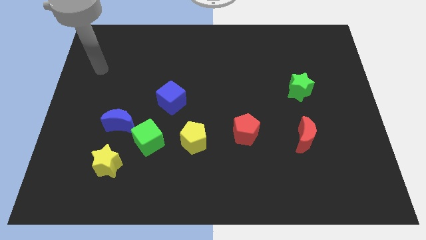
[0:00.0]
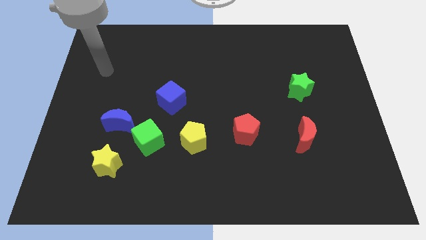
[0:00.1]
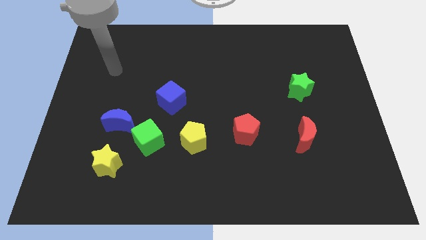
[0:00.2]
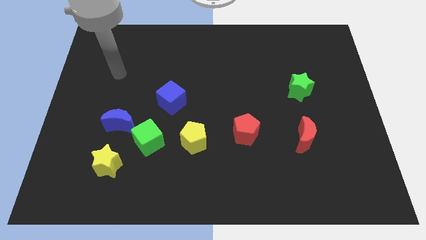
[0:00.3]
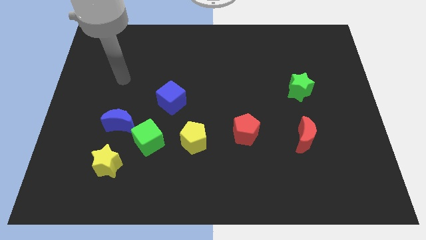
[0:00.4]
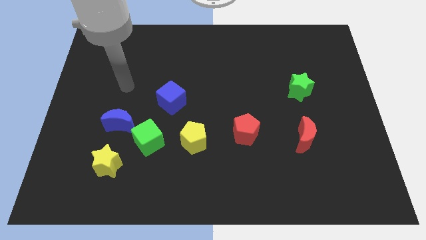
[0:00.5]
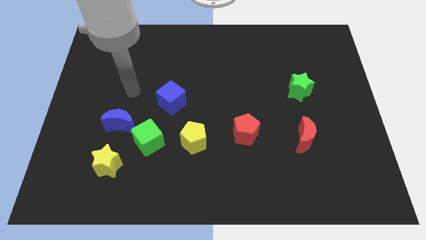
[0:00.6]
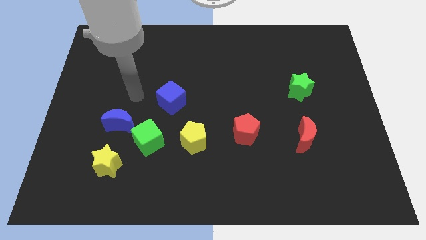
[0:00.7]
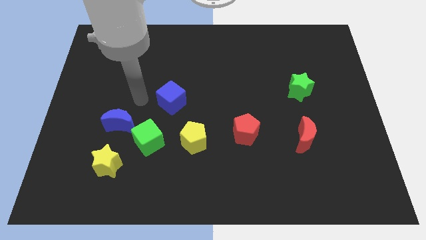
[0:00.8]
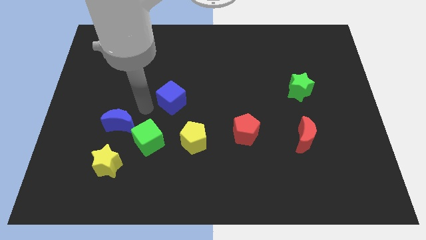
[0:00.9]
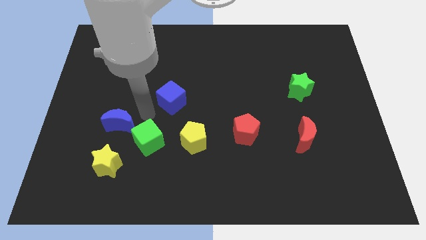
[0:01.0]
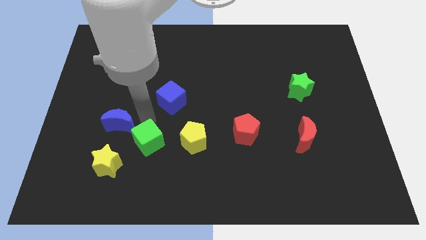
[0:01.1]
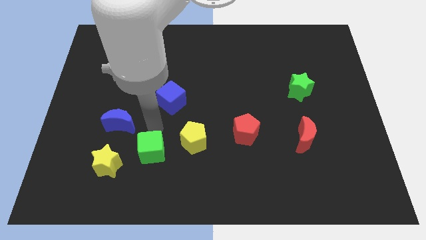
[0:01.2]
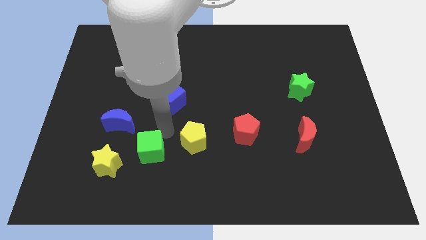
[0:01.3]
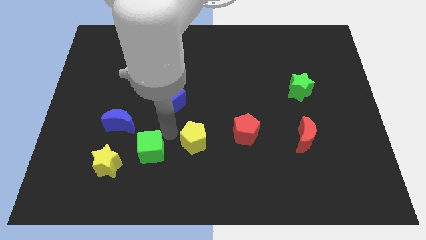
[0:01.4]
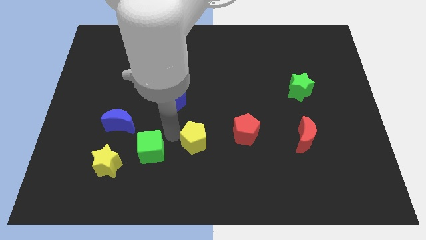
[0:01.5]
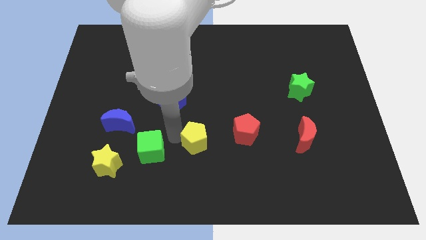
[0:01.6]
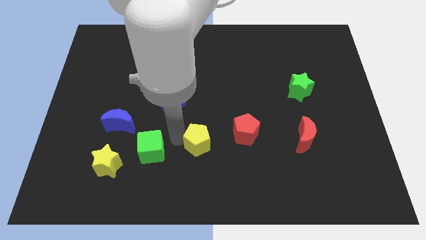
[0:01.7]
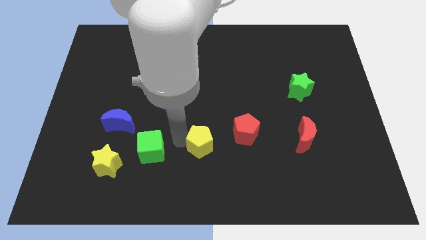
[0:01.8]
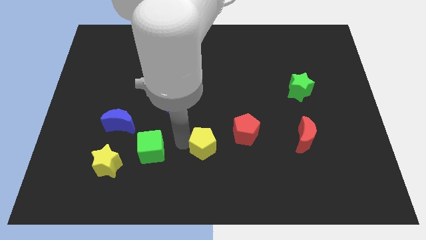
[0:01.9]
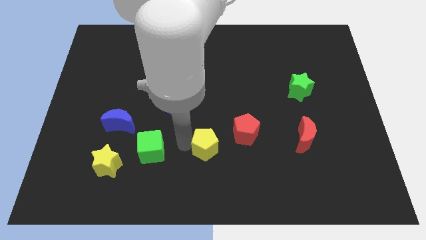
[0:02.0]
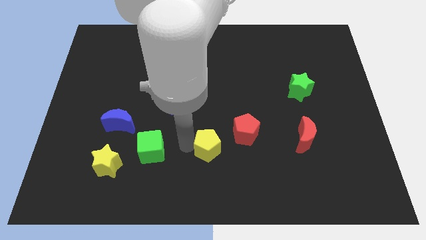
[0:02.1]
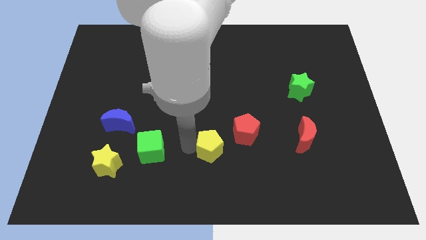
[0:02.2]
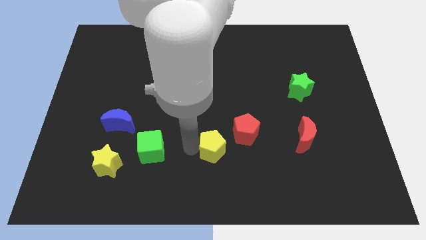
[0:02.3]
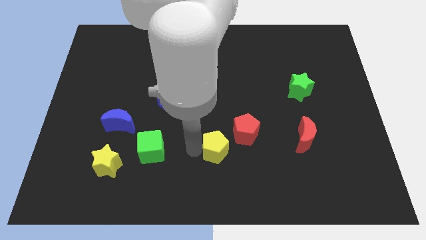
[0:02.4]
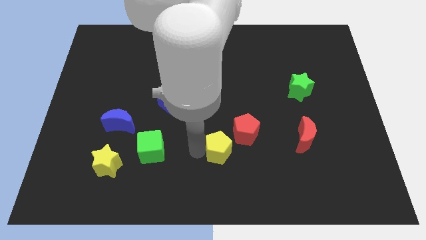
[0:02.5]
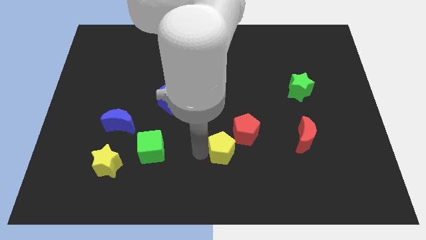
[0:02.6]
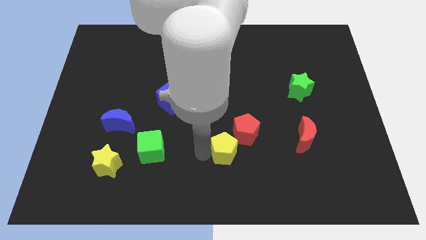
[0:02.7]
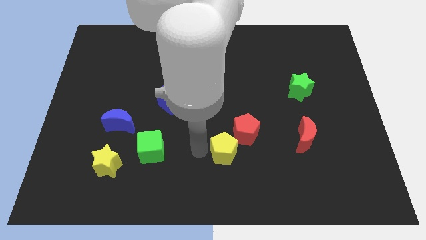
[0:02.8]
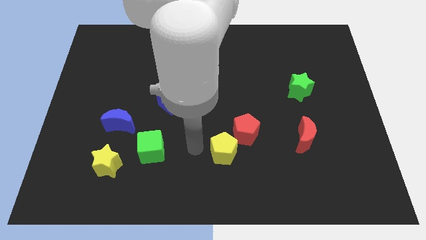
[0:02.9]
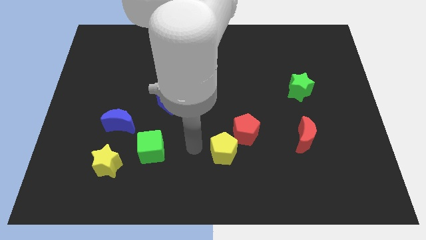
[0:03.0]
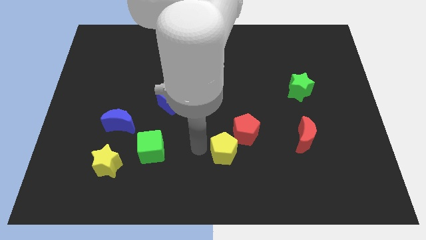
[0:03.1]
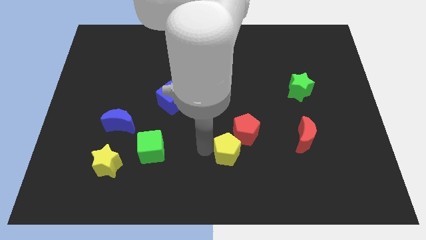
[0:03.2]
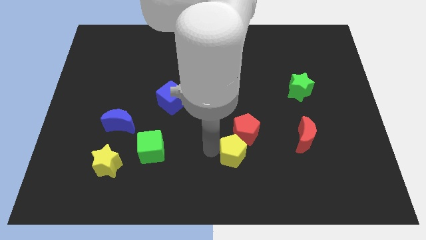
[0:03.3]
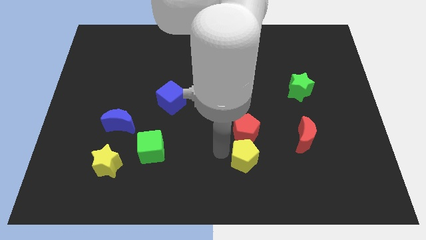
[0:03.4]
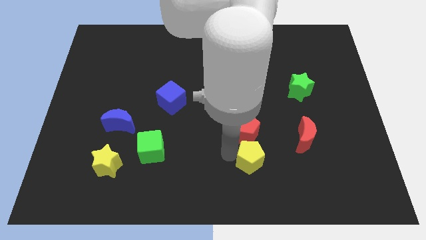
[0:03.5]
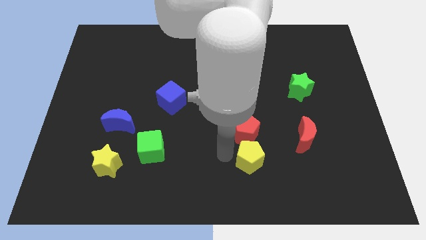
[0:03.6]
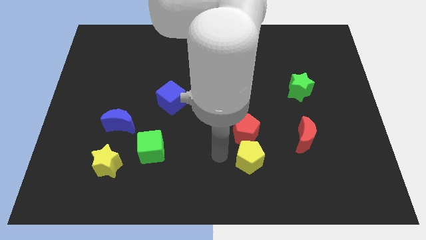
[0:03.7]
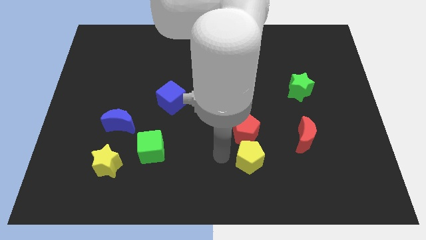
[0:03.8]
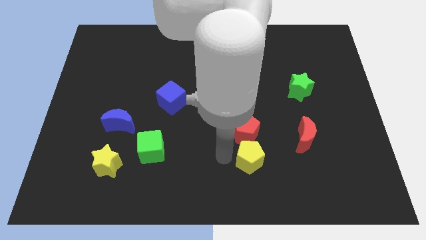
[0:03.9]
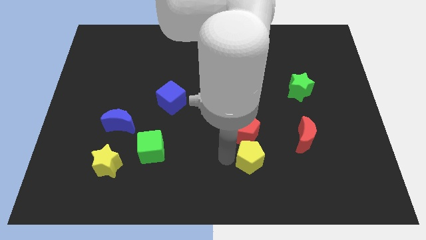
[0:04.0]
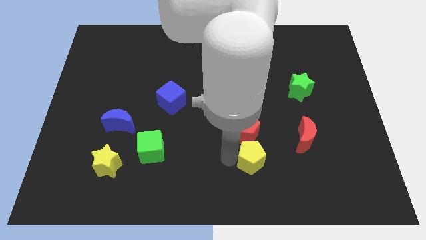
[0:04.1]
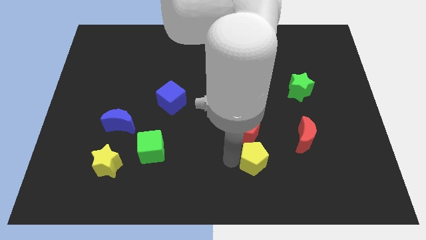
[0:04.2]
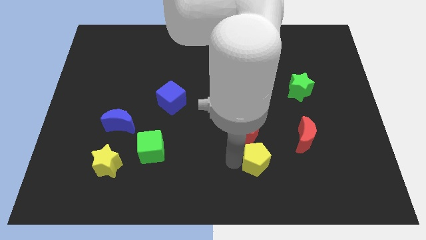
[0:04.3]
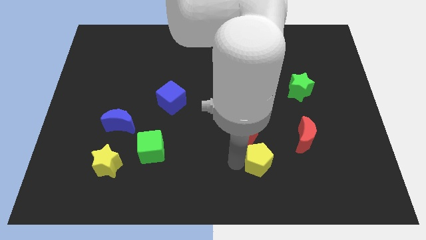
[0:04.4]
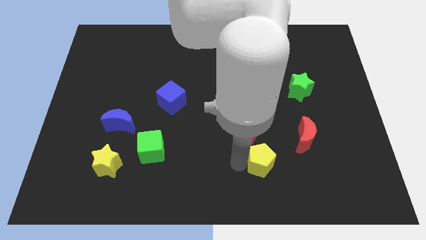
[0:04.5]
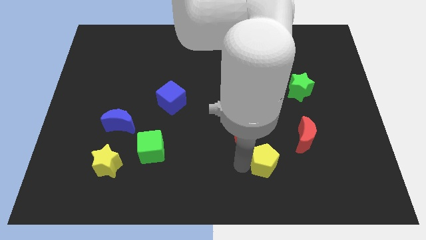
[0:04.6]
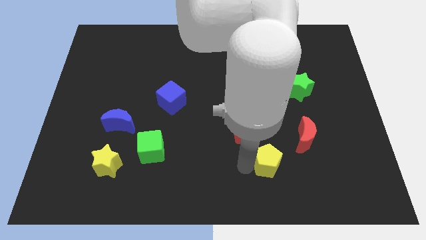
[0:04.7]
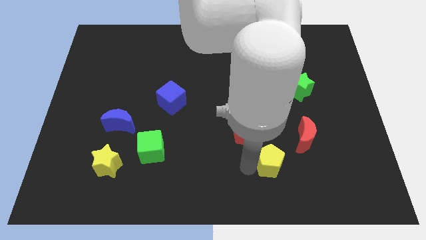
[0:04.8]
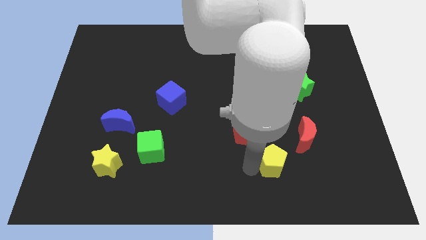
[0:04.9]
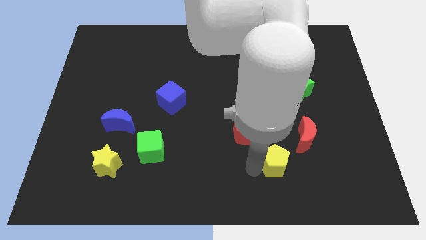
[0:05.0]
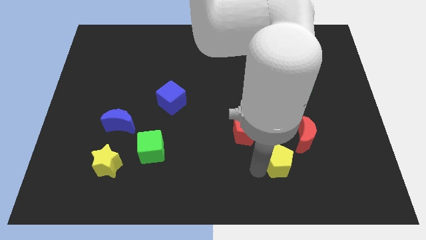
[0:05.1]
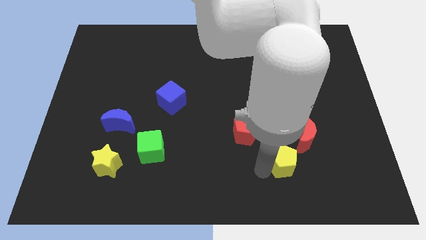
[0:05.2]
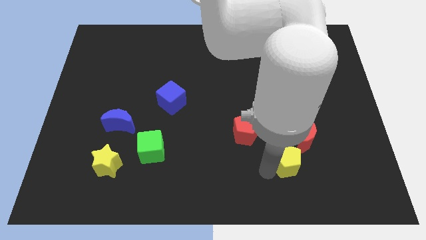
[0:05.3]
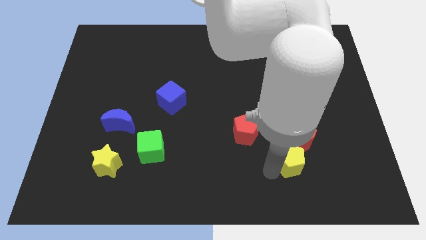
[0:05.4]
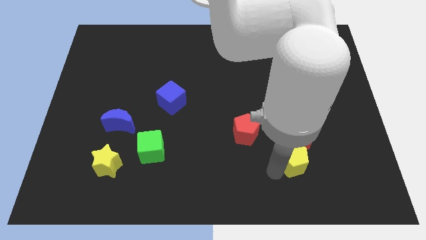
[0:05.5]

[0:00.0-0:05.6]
slide the yellow pentagon right

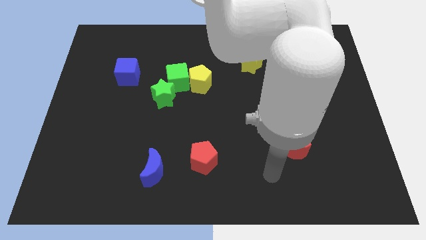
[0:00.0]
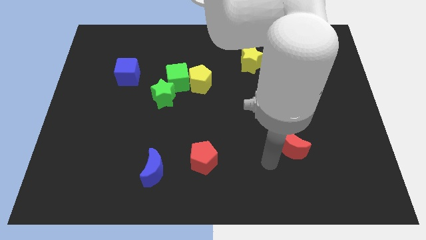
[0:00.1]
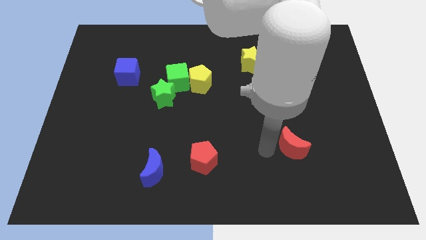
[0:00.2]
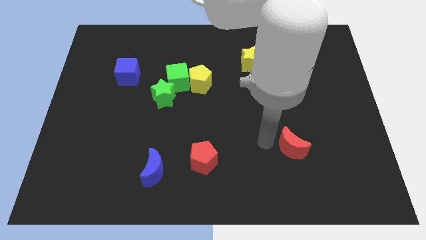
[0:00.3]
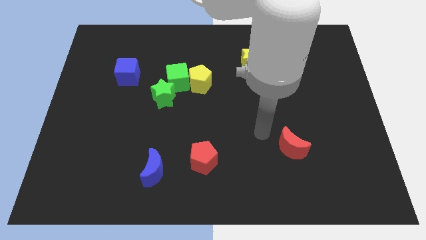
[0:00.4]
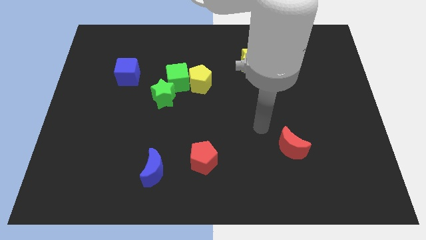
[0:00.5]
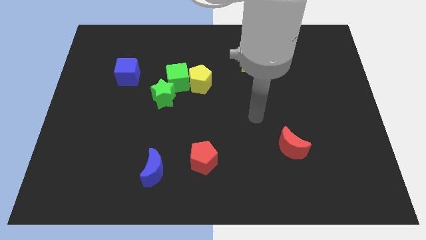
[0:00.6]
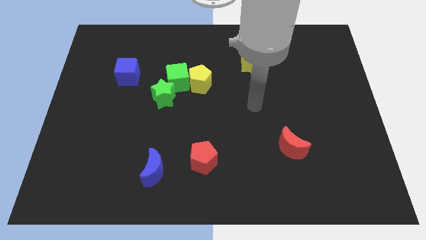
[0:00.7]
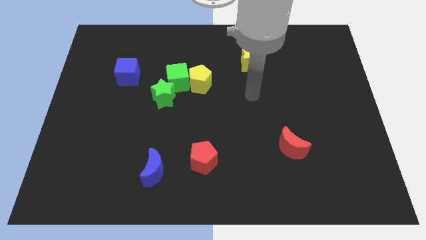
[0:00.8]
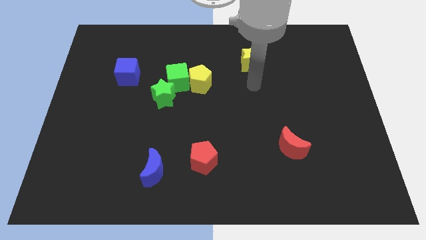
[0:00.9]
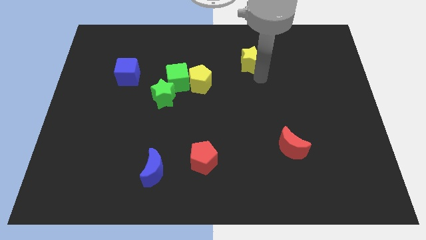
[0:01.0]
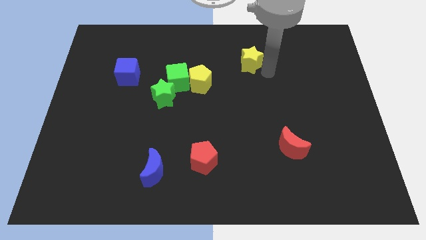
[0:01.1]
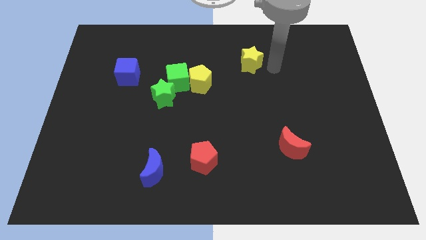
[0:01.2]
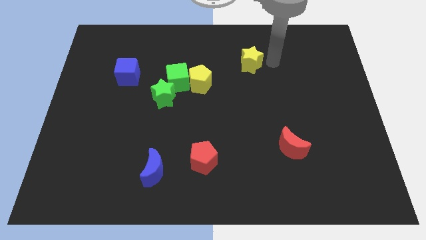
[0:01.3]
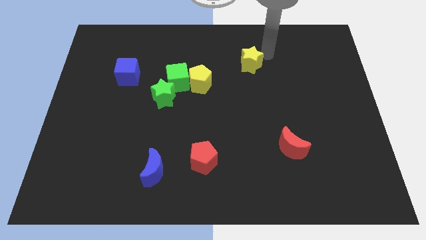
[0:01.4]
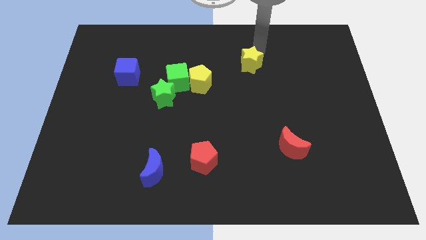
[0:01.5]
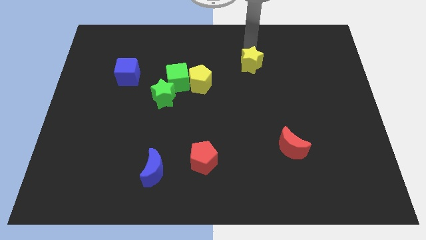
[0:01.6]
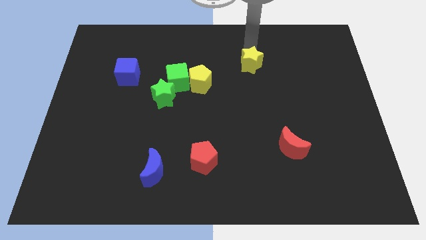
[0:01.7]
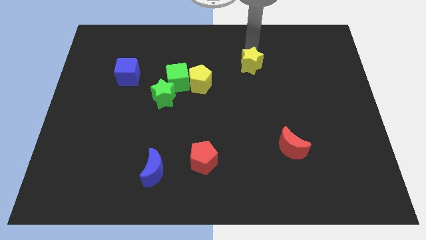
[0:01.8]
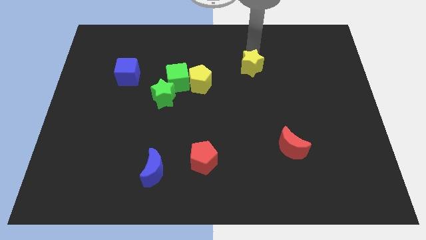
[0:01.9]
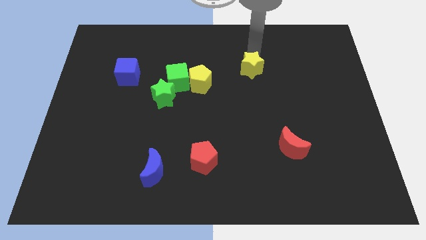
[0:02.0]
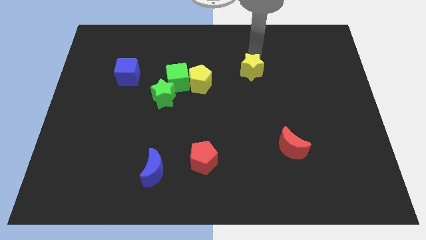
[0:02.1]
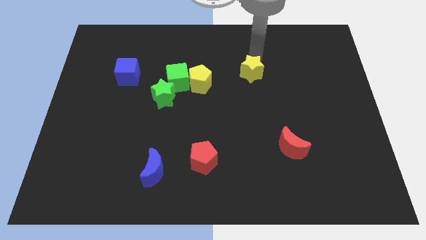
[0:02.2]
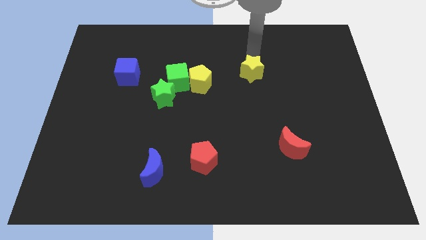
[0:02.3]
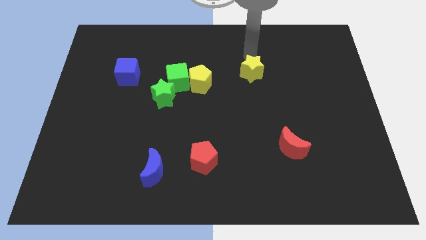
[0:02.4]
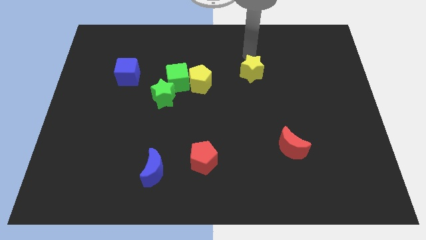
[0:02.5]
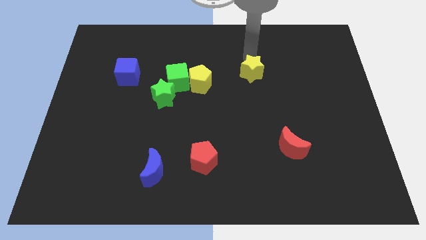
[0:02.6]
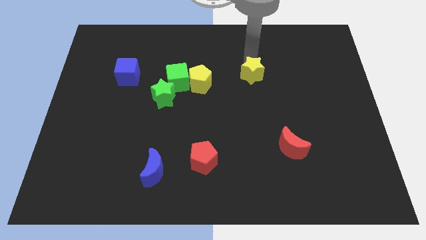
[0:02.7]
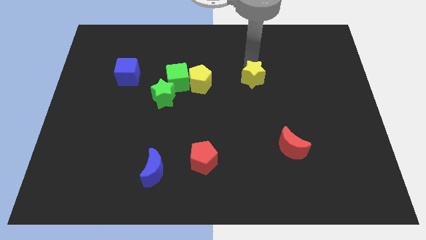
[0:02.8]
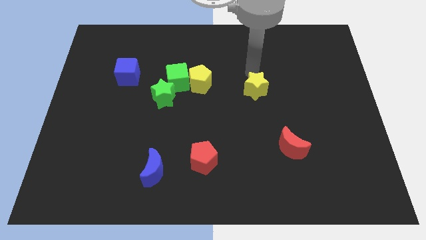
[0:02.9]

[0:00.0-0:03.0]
slightly push the yellow star downwards
